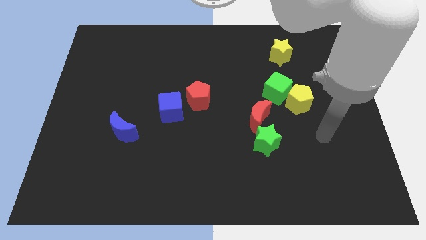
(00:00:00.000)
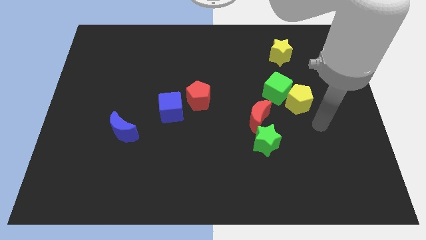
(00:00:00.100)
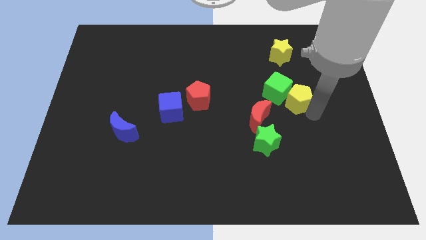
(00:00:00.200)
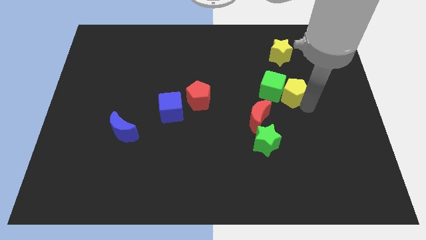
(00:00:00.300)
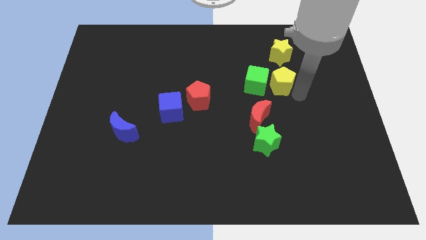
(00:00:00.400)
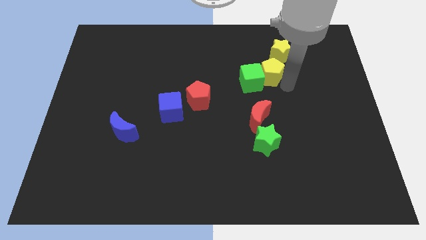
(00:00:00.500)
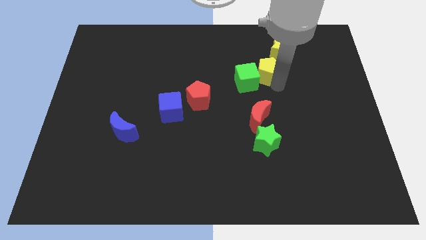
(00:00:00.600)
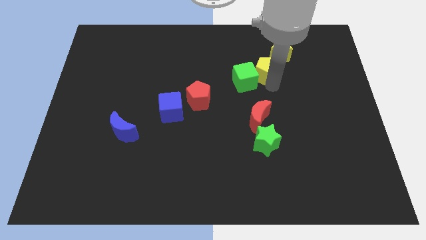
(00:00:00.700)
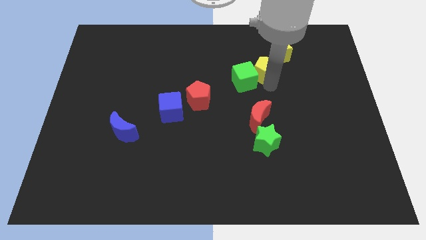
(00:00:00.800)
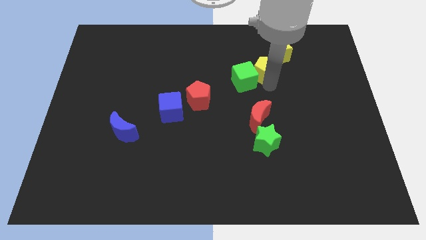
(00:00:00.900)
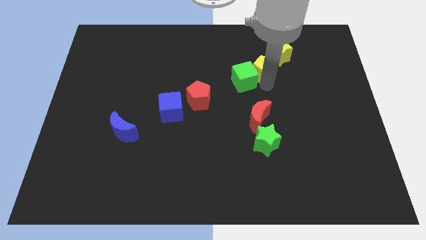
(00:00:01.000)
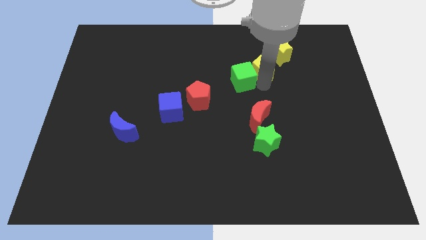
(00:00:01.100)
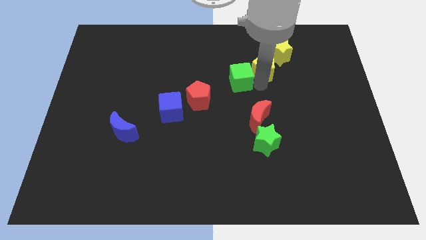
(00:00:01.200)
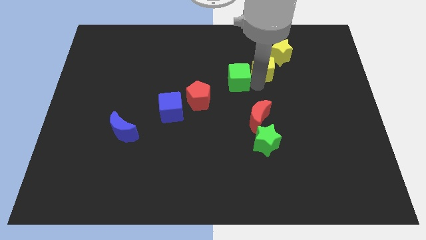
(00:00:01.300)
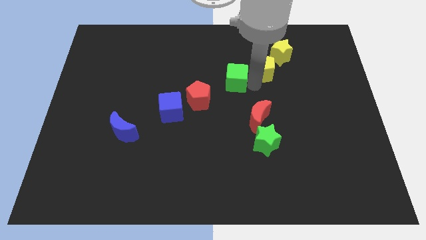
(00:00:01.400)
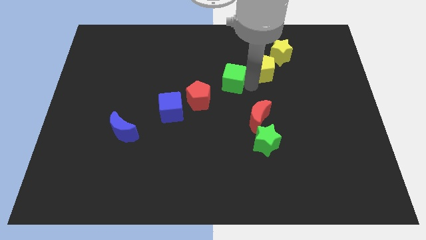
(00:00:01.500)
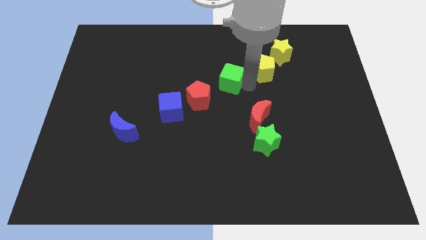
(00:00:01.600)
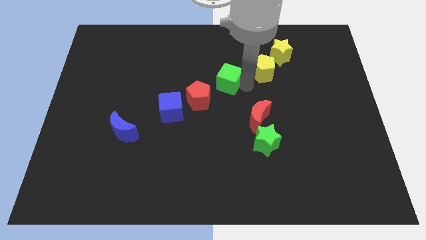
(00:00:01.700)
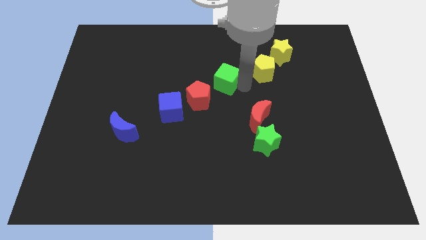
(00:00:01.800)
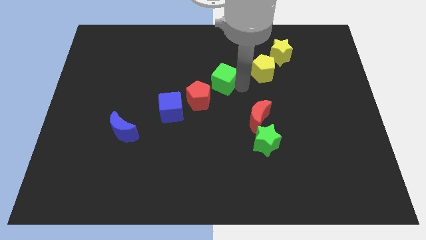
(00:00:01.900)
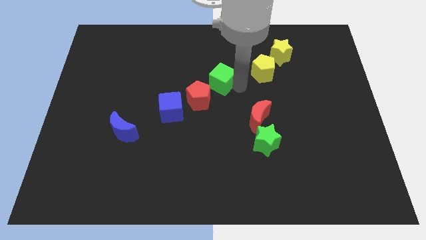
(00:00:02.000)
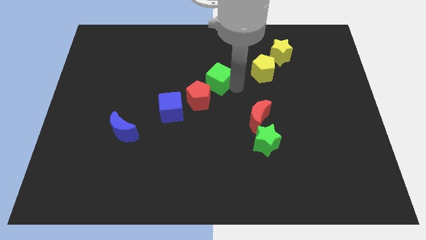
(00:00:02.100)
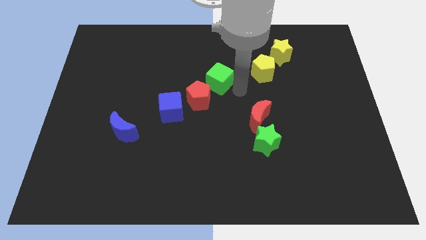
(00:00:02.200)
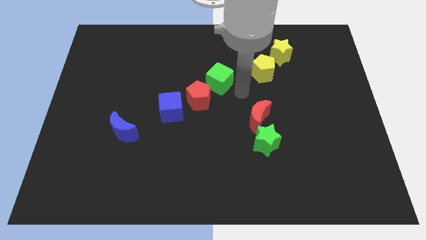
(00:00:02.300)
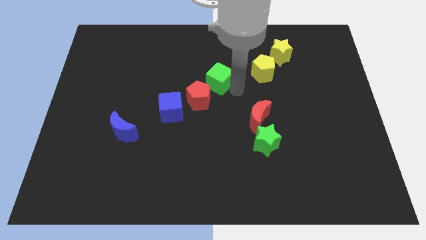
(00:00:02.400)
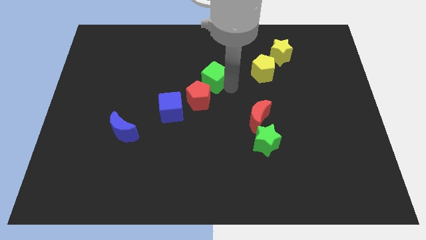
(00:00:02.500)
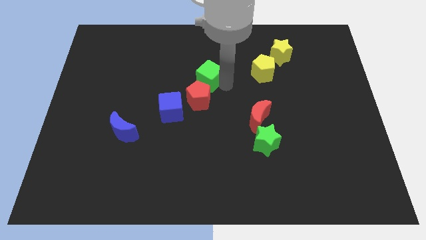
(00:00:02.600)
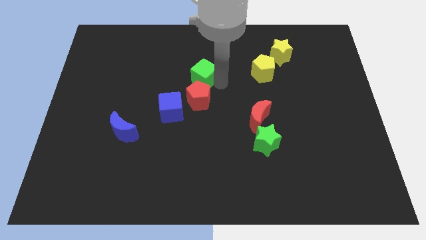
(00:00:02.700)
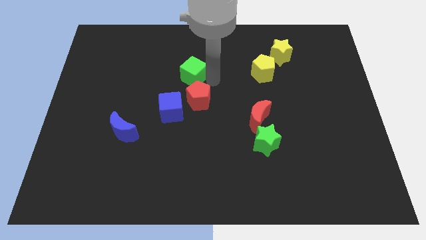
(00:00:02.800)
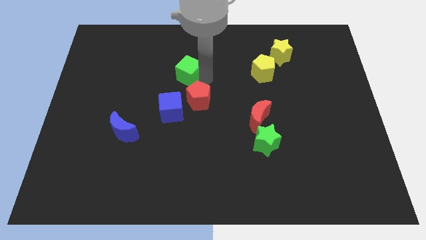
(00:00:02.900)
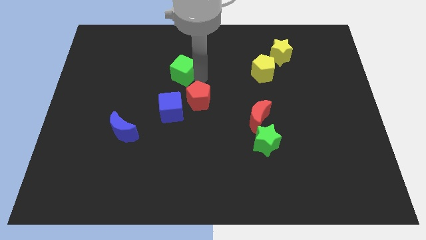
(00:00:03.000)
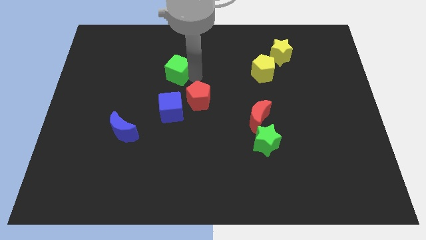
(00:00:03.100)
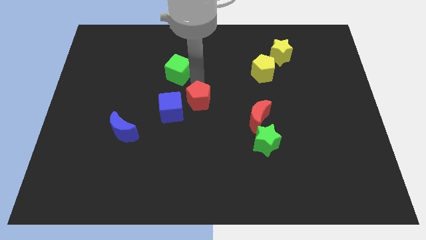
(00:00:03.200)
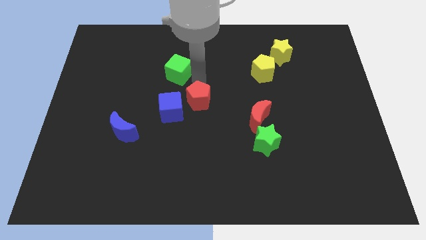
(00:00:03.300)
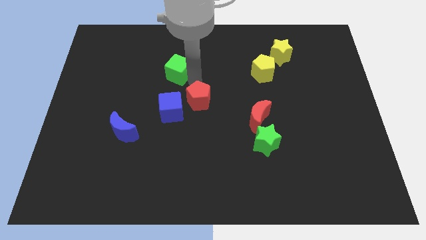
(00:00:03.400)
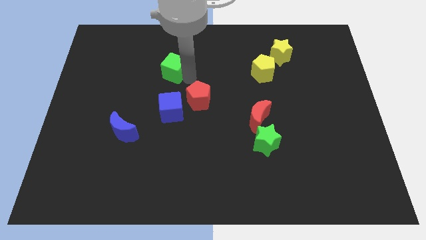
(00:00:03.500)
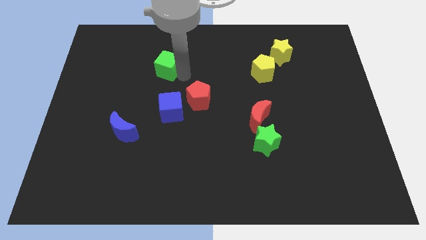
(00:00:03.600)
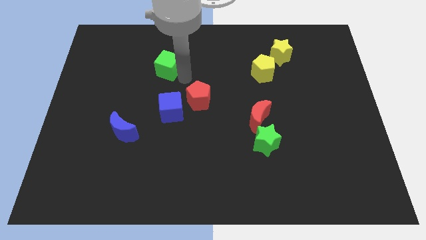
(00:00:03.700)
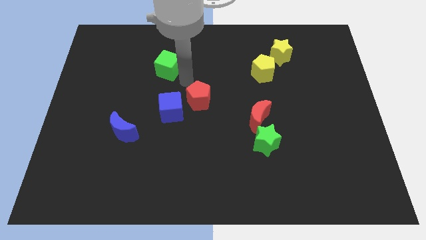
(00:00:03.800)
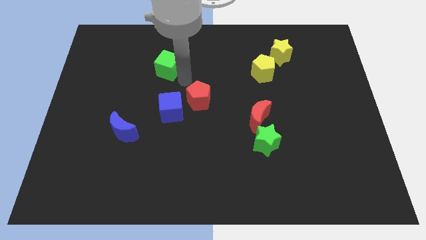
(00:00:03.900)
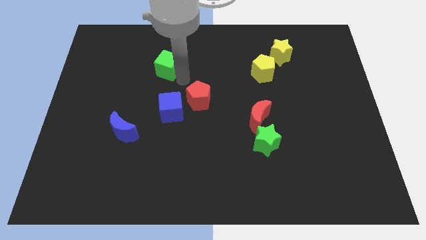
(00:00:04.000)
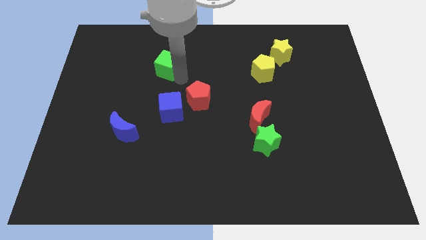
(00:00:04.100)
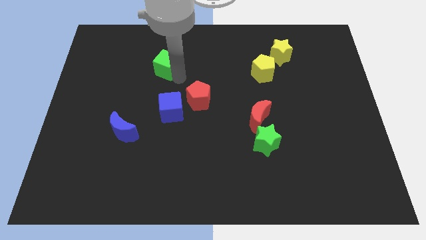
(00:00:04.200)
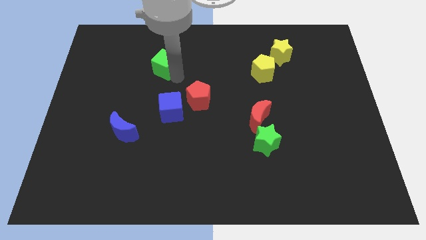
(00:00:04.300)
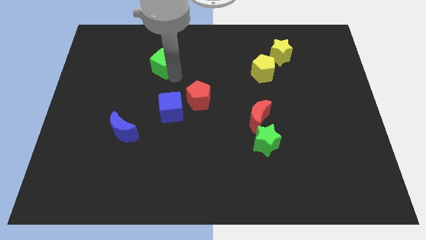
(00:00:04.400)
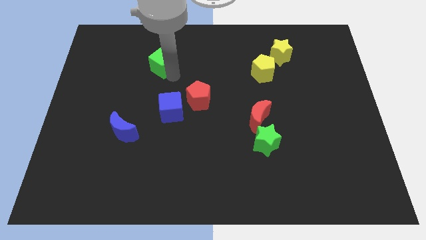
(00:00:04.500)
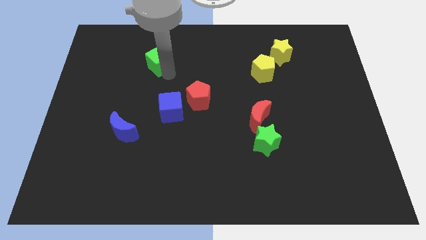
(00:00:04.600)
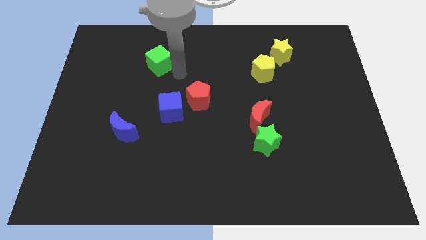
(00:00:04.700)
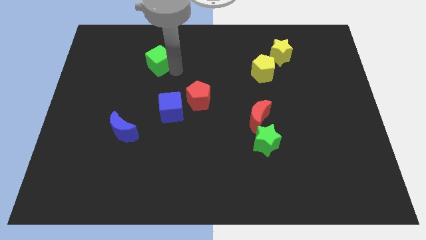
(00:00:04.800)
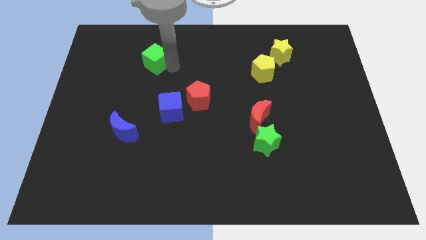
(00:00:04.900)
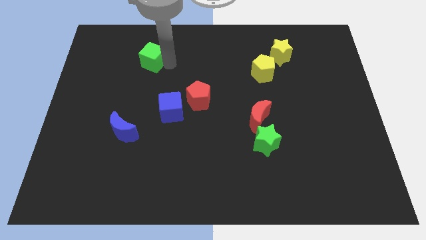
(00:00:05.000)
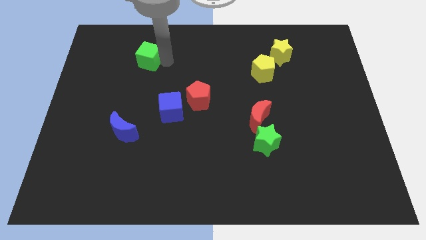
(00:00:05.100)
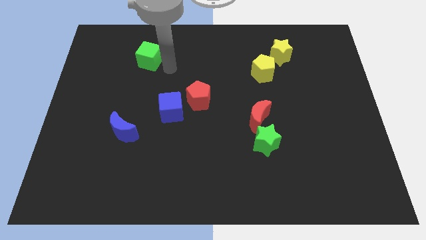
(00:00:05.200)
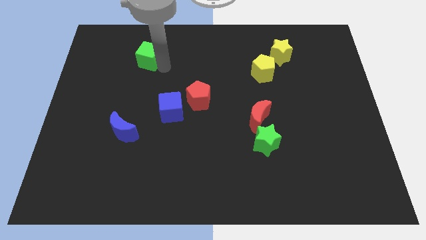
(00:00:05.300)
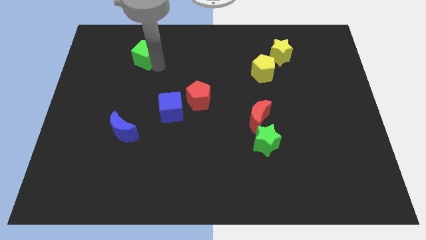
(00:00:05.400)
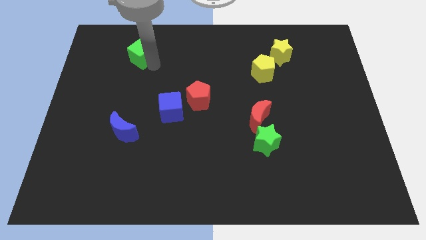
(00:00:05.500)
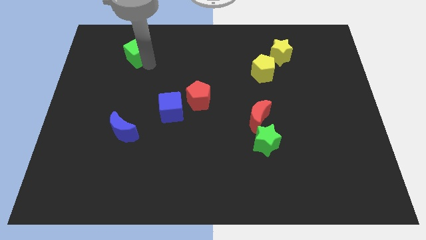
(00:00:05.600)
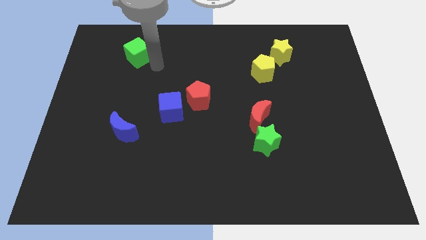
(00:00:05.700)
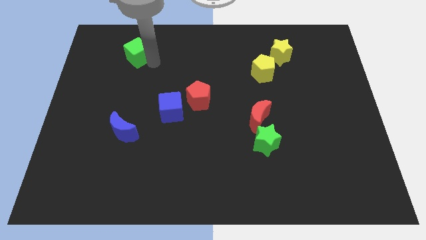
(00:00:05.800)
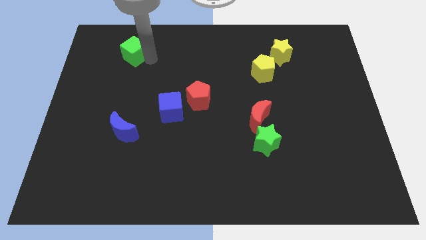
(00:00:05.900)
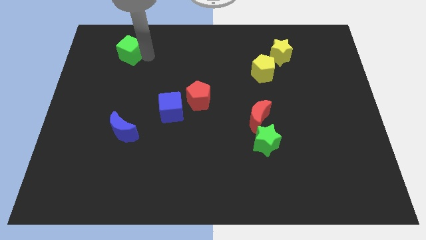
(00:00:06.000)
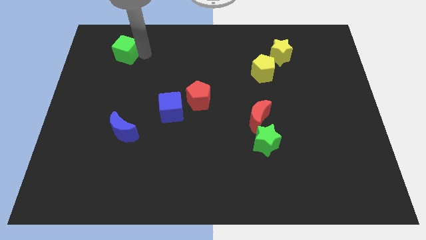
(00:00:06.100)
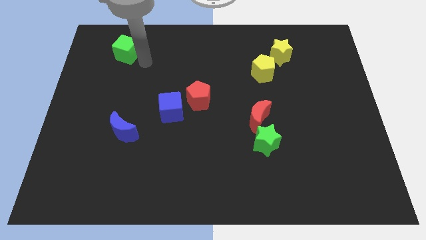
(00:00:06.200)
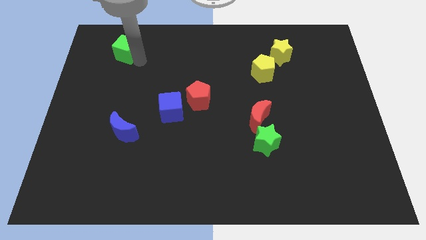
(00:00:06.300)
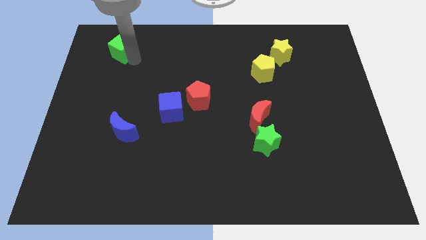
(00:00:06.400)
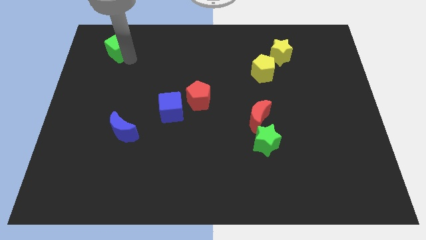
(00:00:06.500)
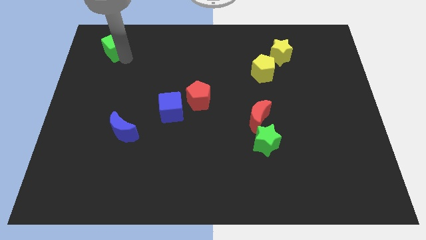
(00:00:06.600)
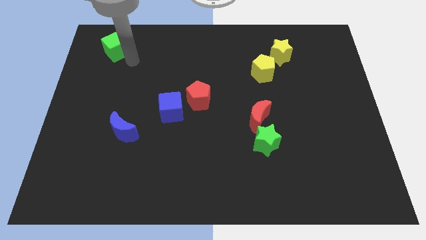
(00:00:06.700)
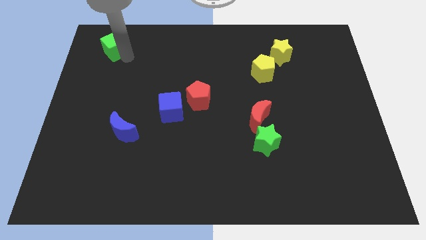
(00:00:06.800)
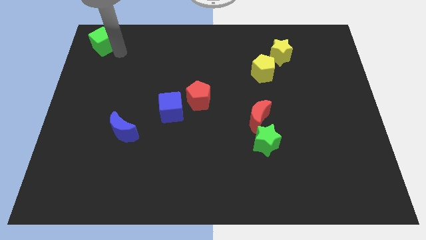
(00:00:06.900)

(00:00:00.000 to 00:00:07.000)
push the green cube to the upper left corner
